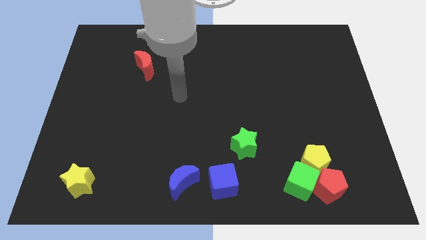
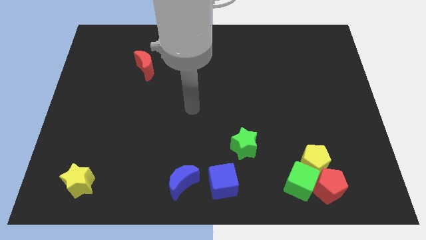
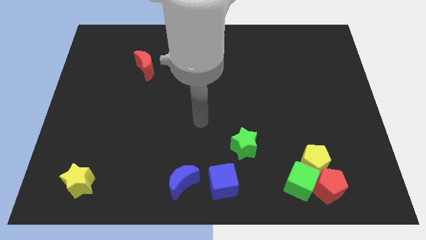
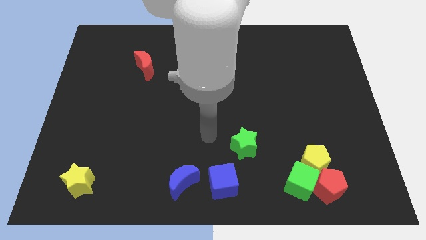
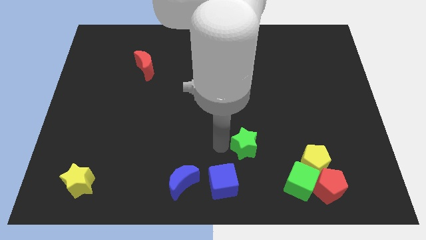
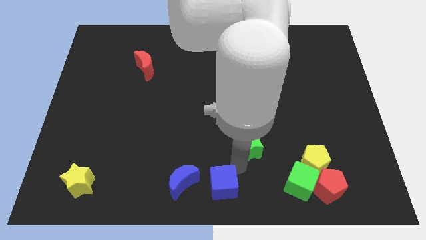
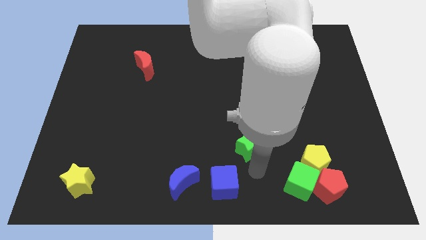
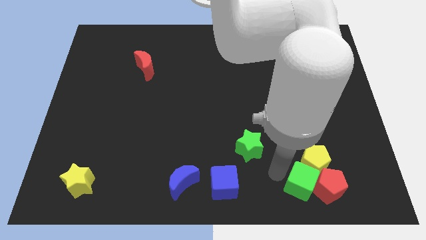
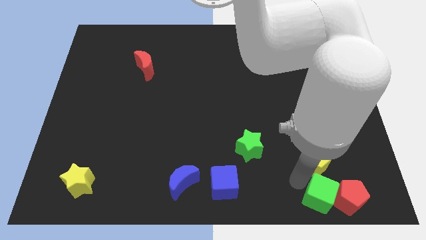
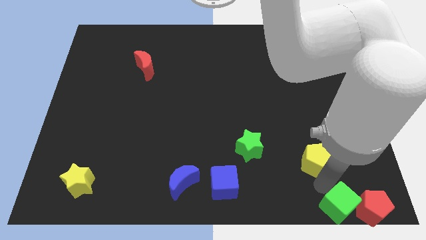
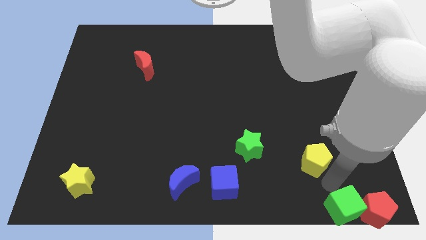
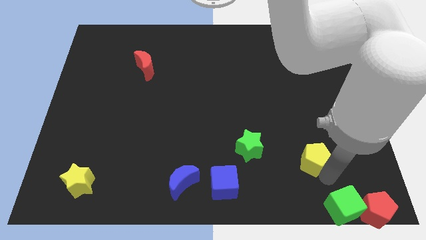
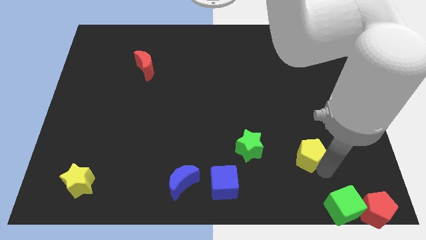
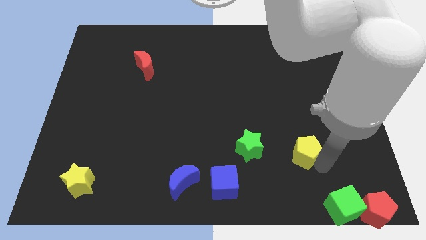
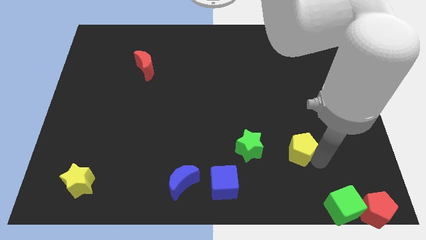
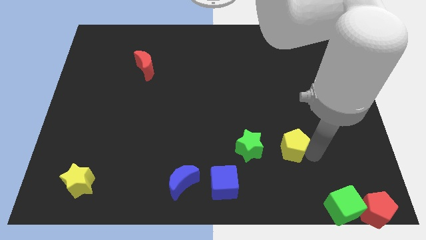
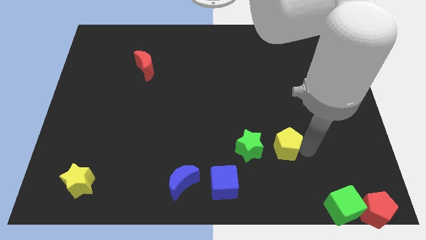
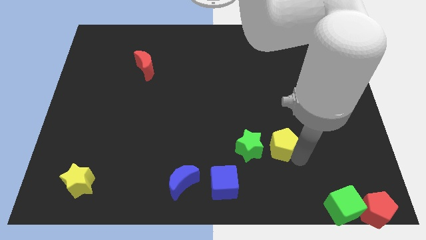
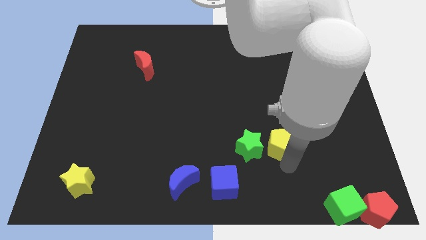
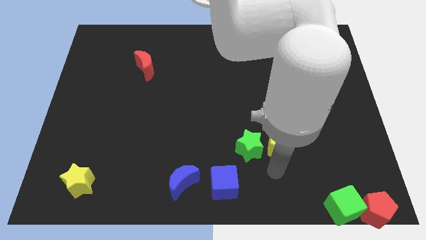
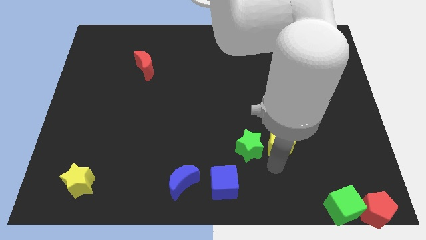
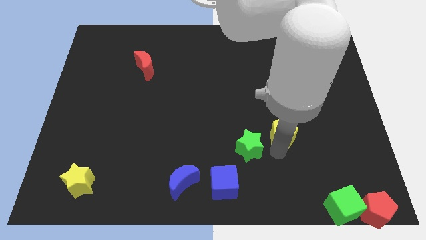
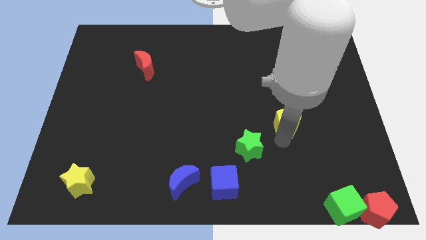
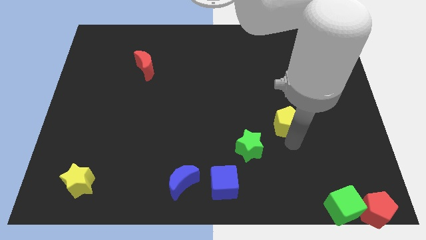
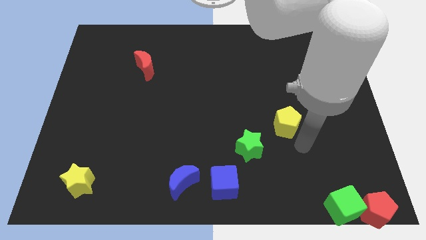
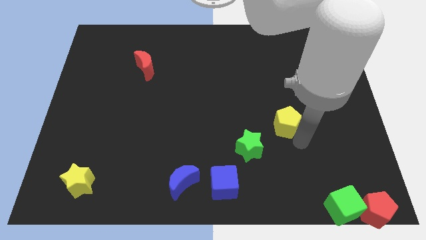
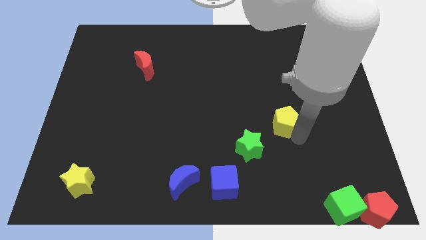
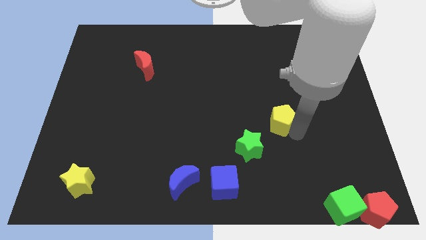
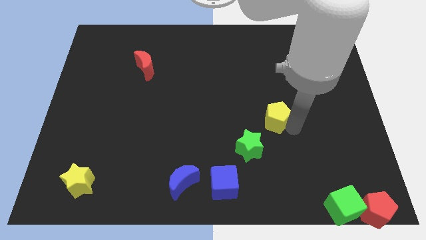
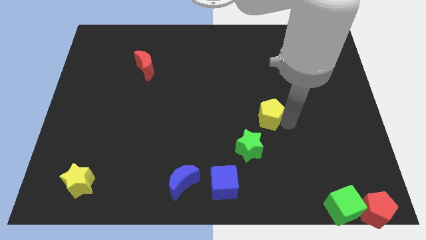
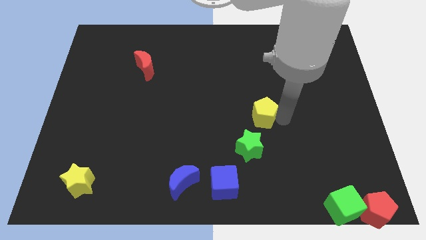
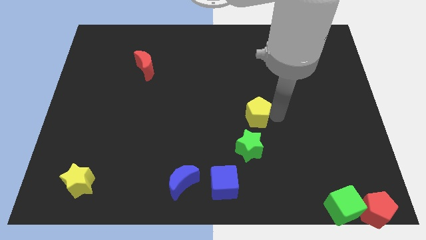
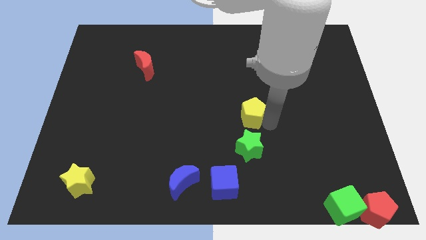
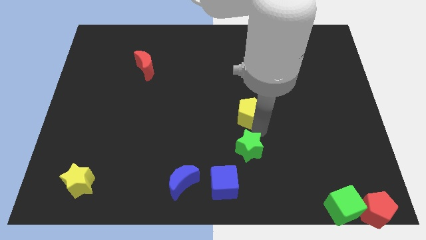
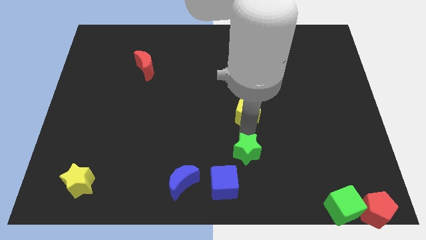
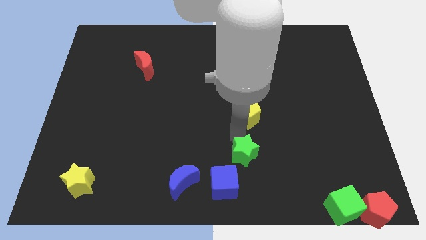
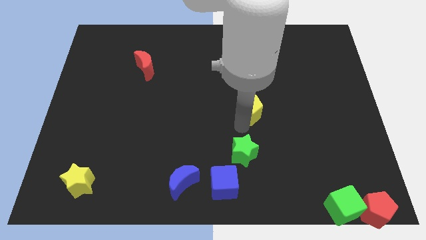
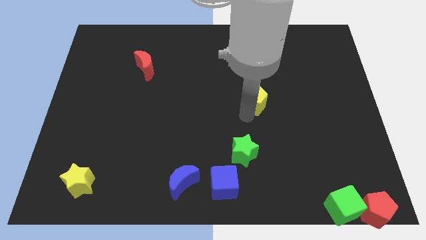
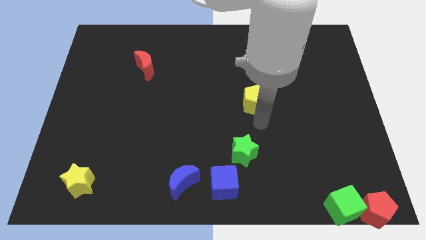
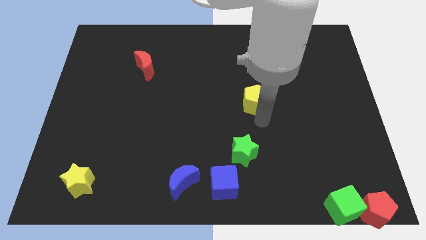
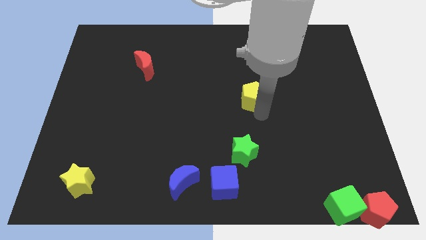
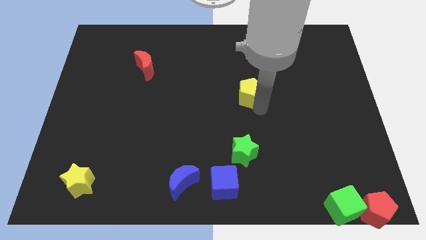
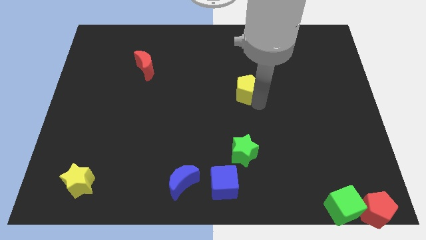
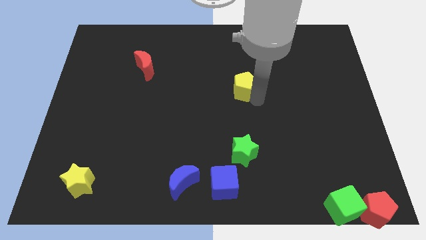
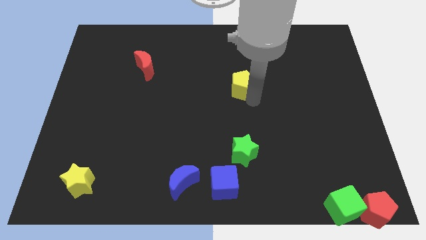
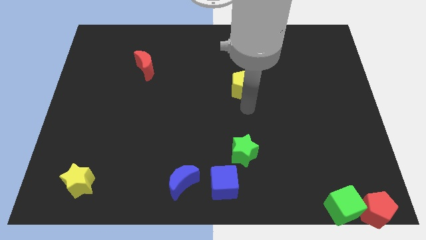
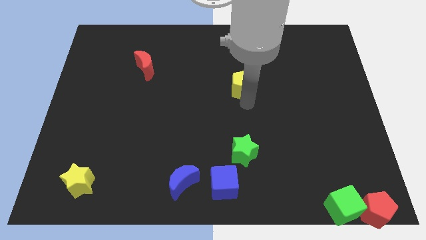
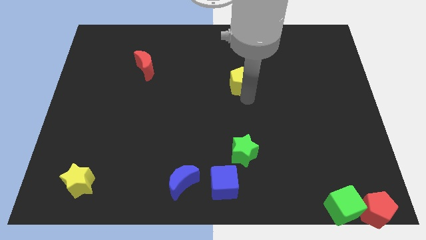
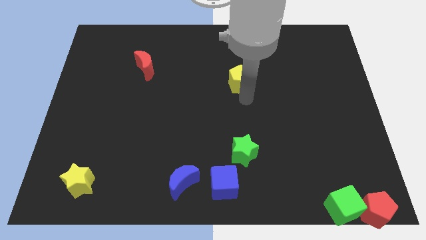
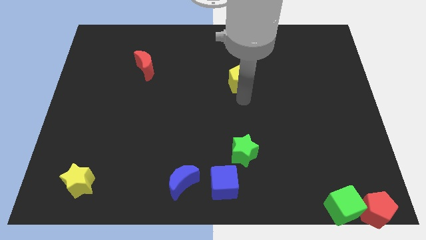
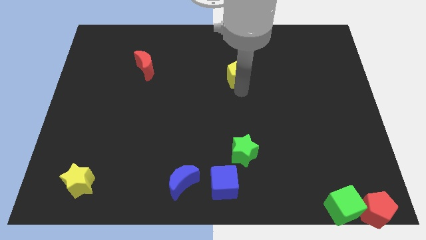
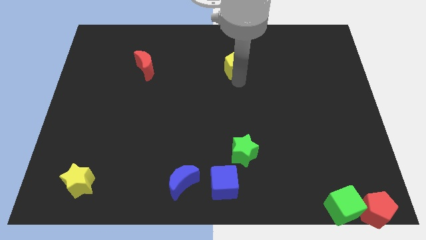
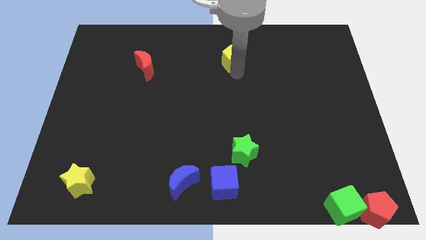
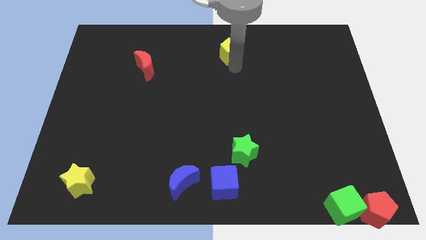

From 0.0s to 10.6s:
move the yellow pentagon to the top

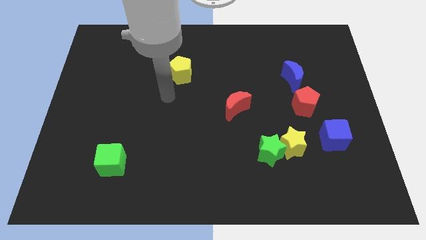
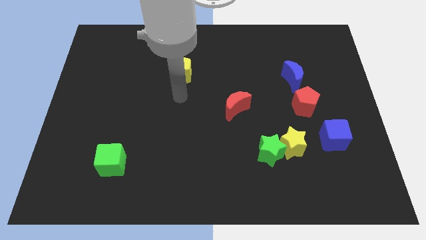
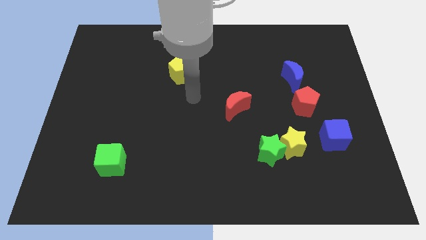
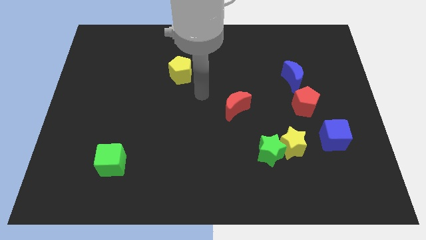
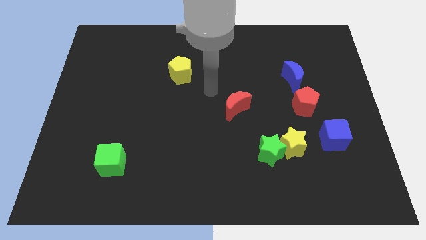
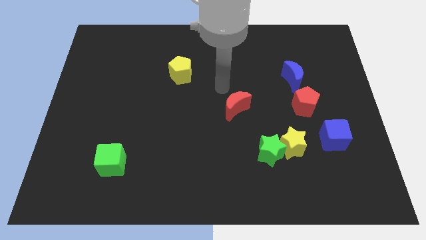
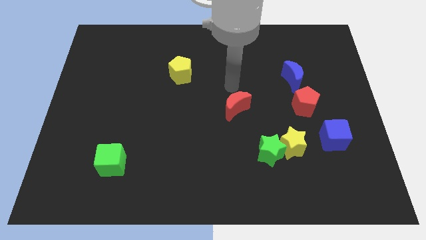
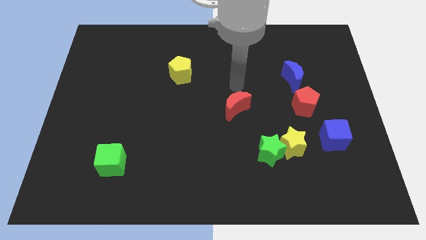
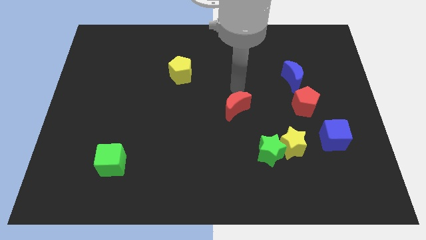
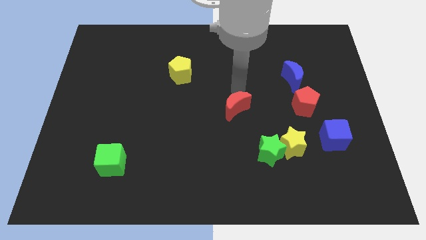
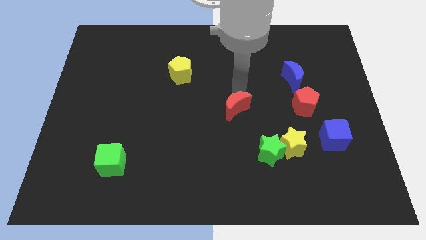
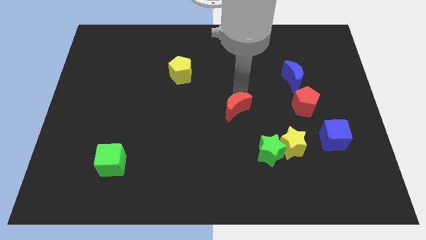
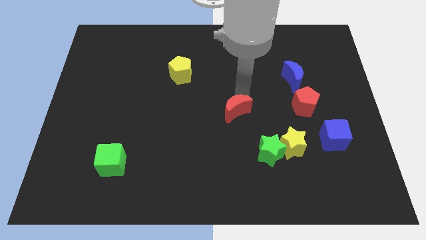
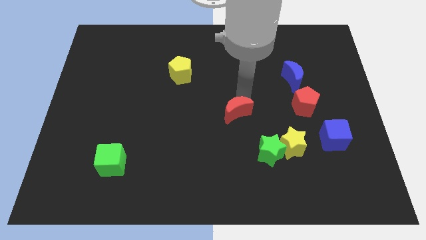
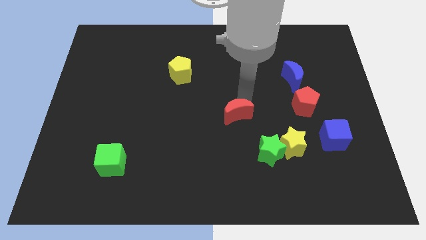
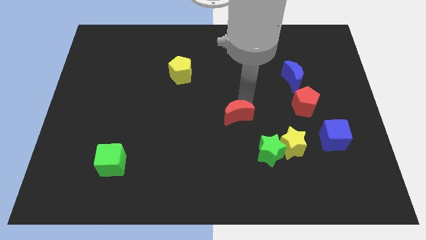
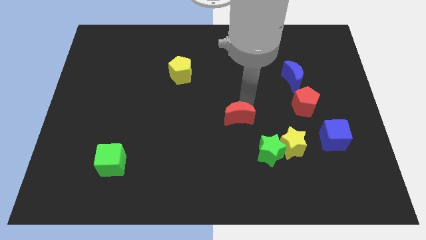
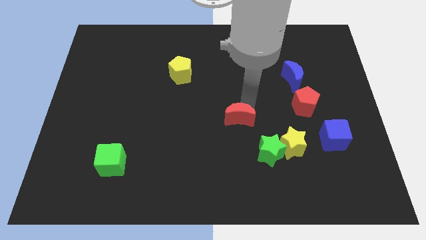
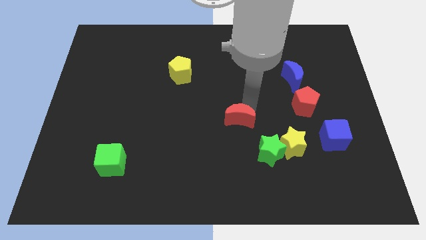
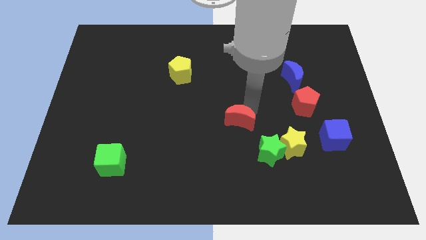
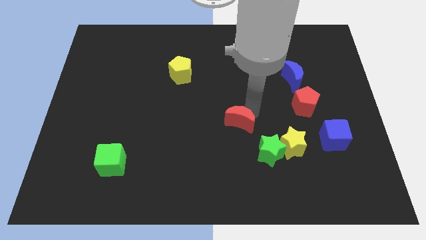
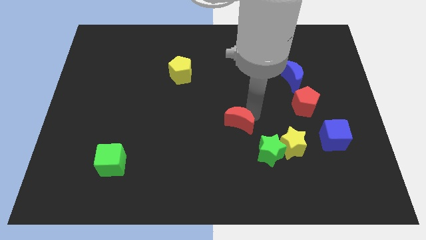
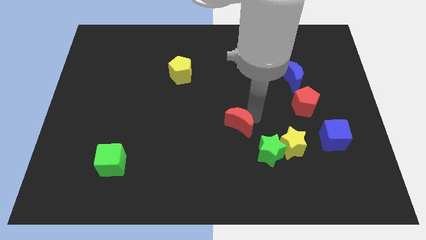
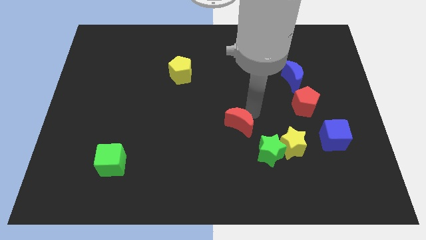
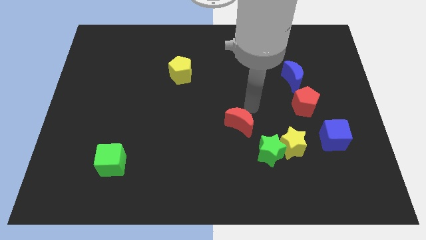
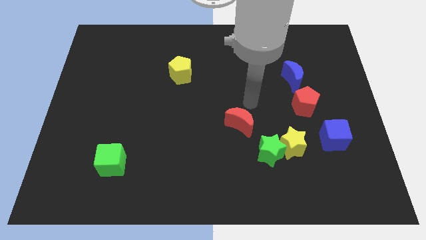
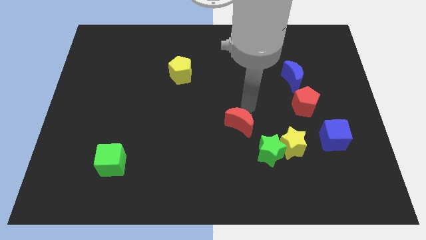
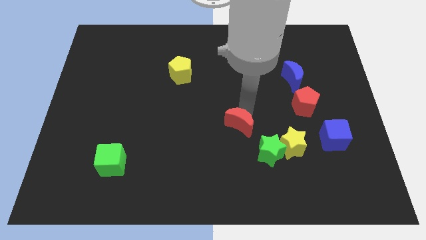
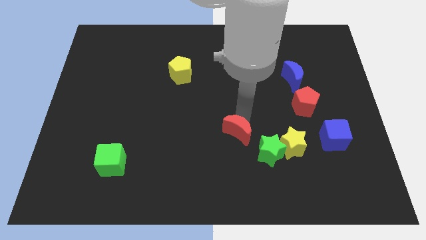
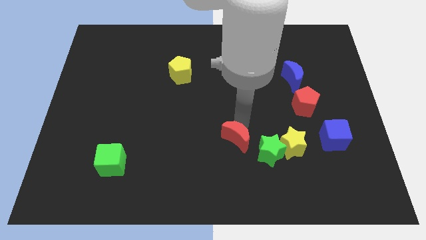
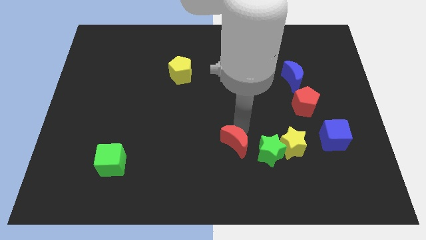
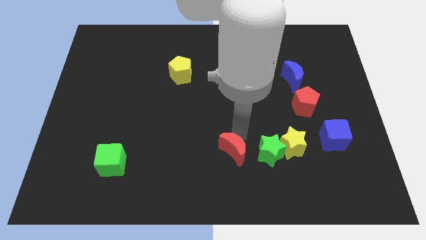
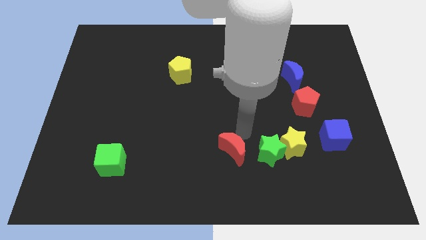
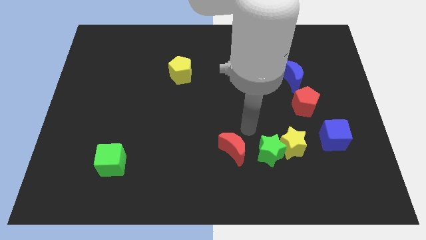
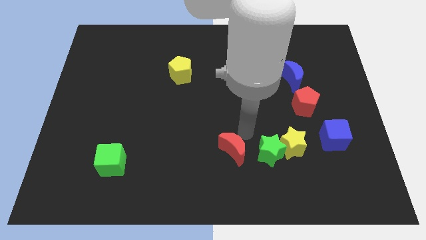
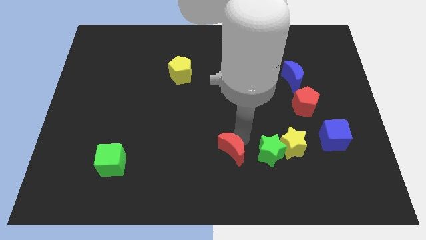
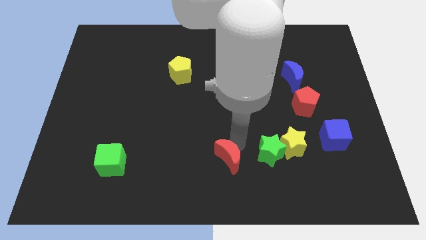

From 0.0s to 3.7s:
put the red moon to the bottom
